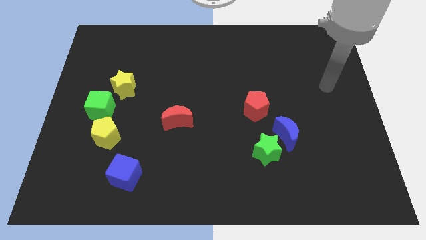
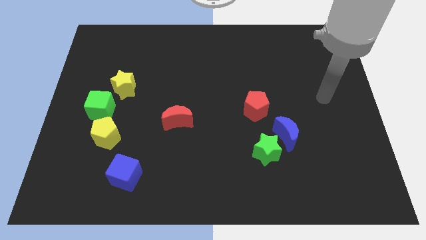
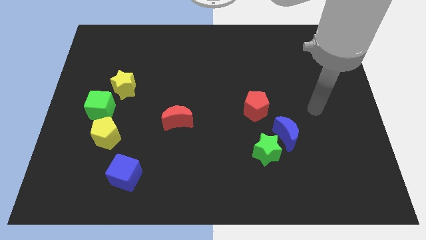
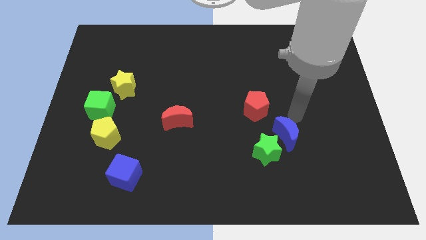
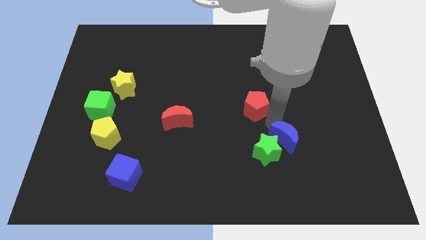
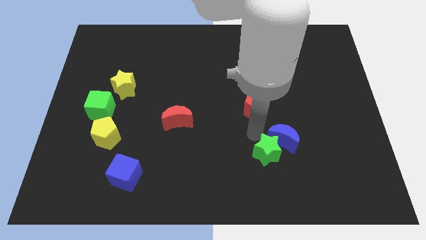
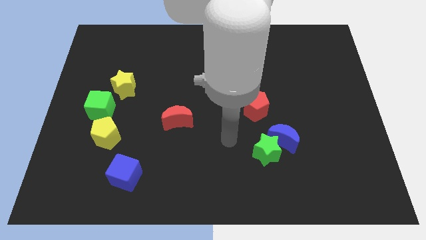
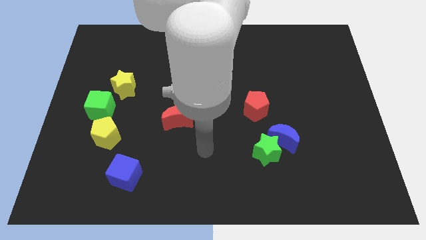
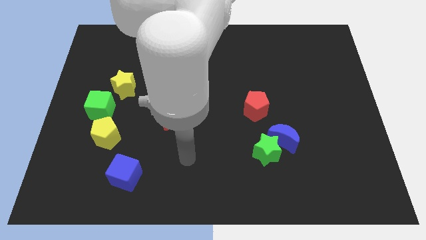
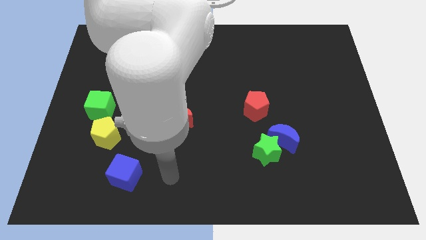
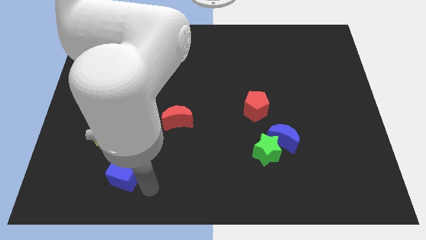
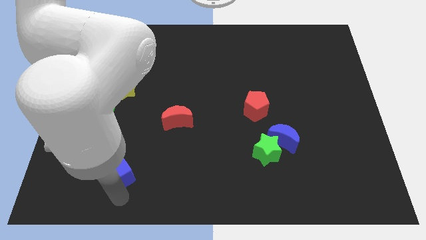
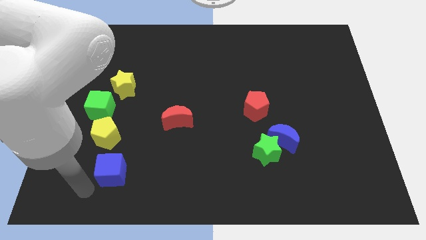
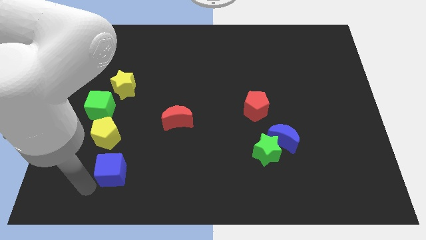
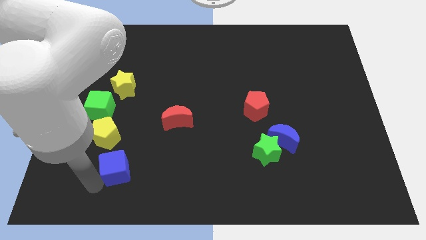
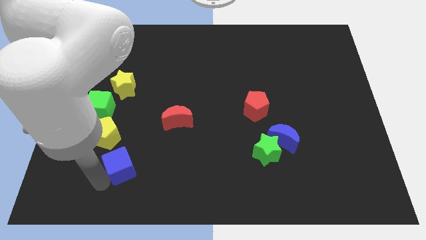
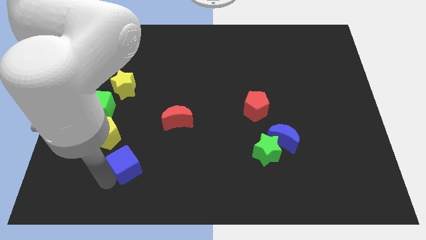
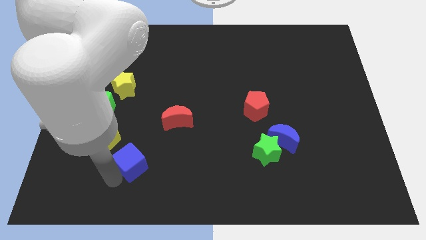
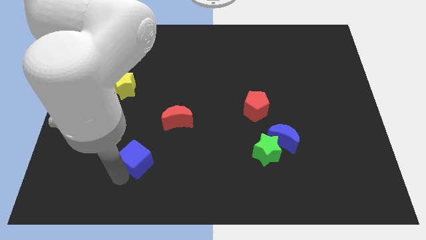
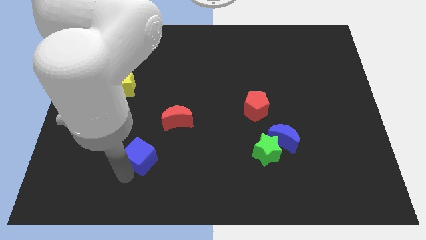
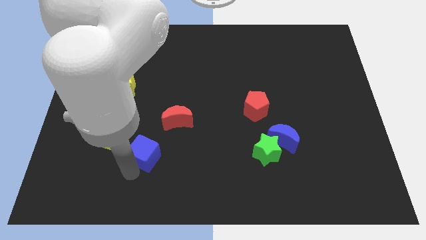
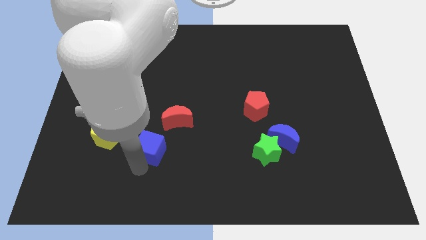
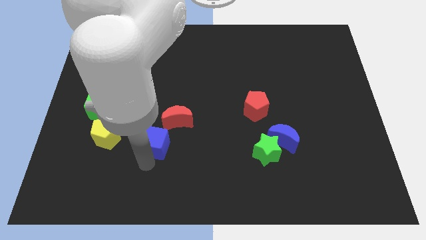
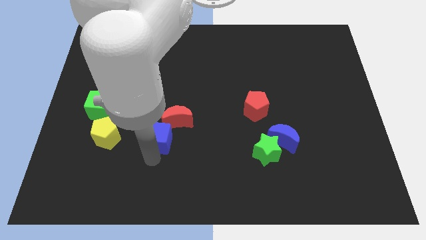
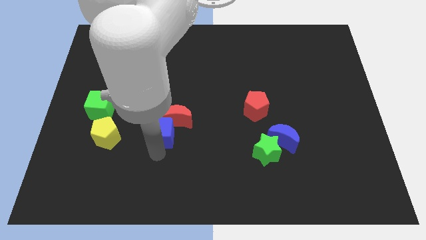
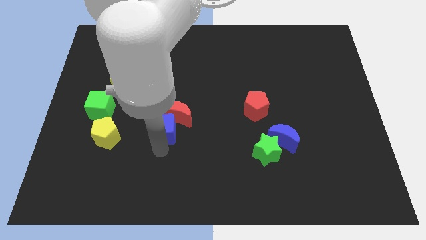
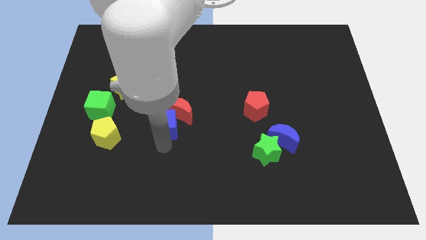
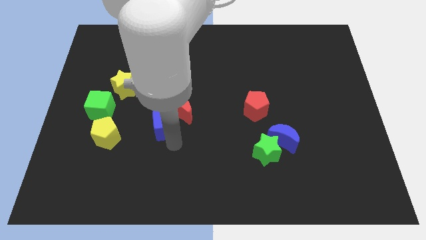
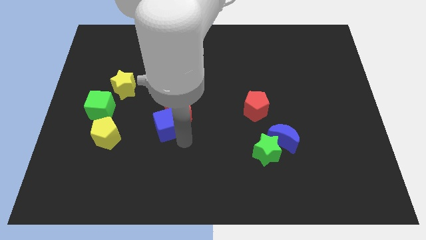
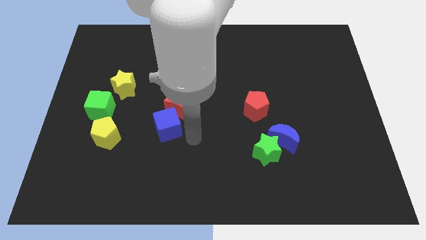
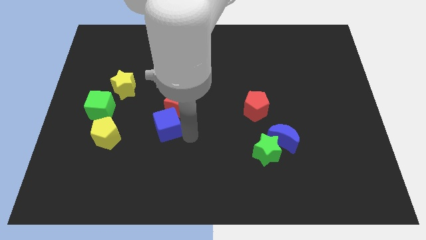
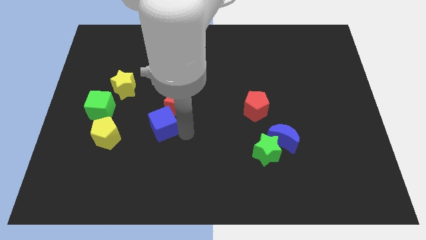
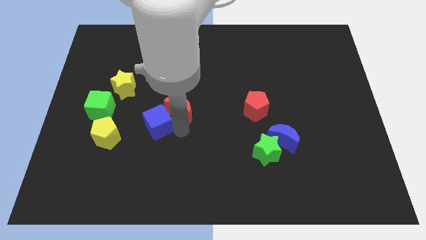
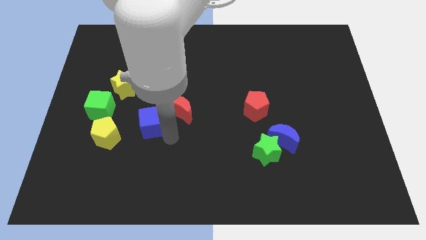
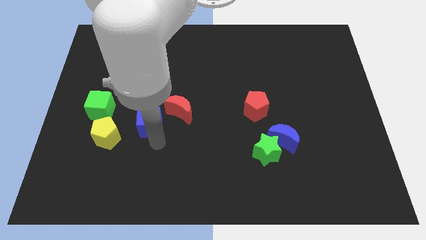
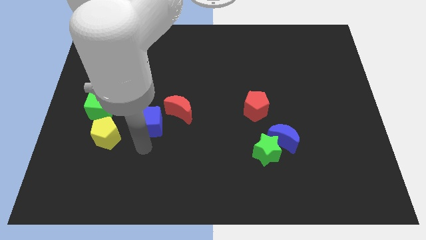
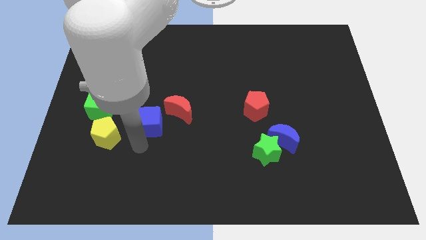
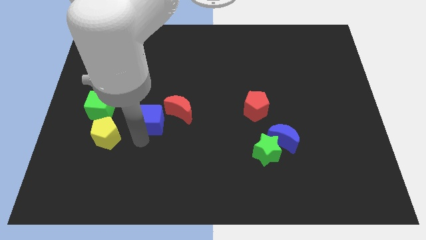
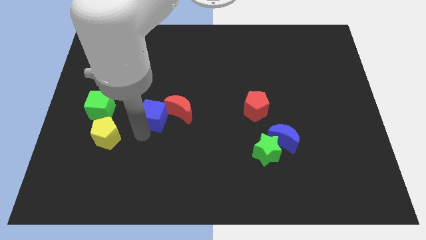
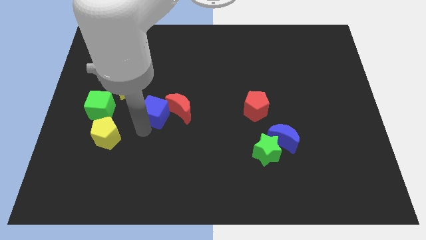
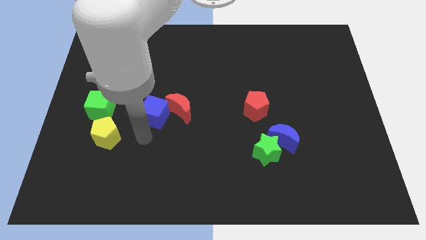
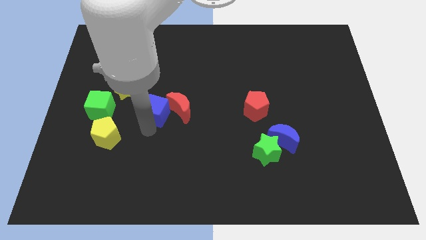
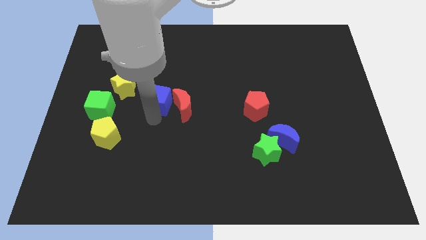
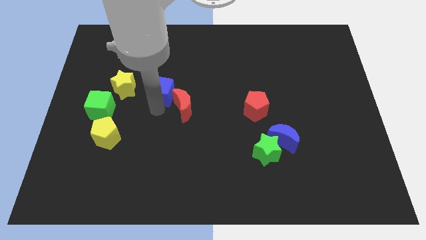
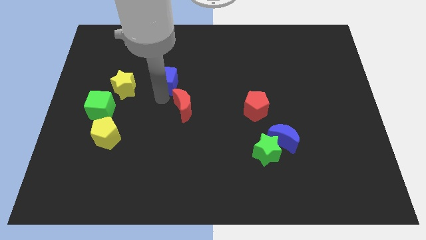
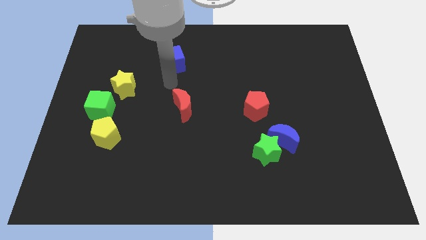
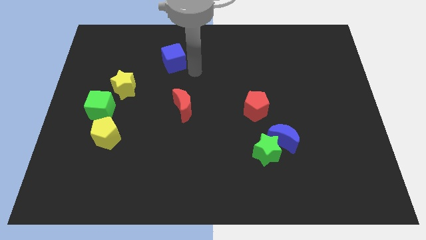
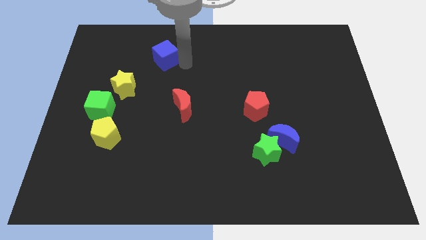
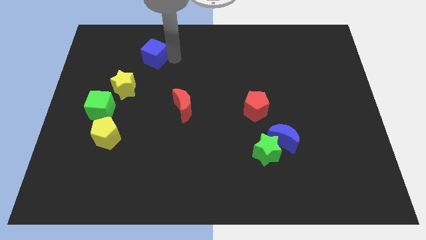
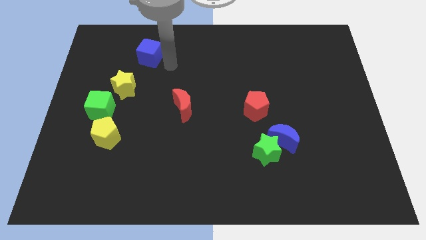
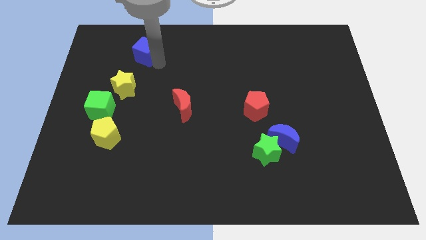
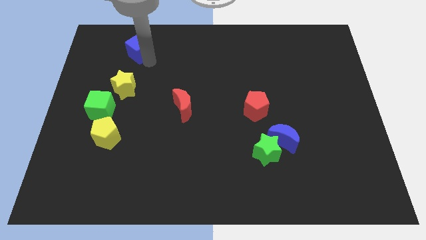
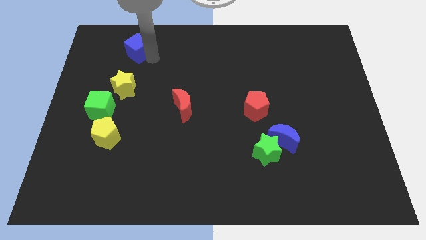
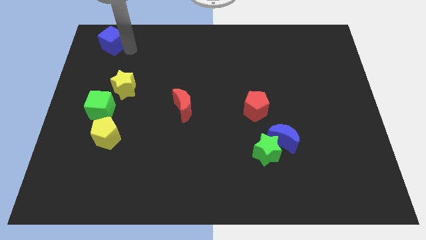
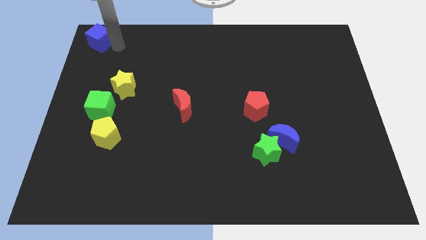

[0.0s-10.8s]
move the blue cube to the top left corner

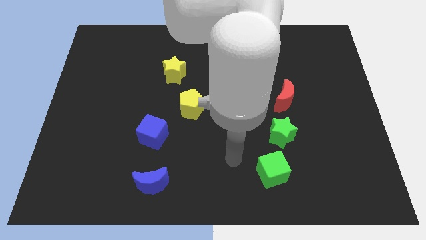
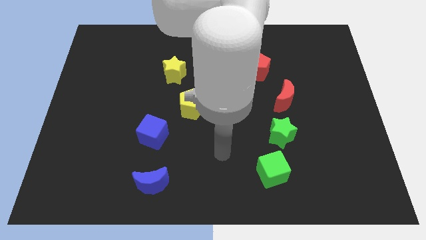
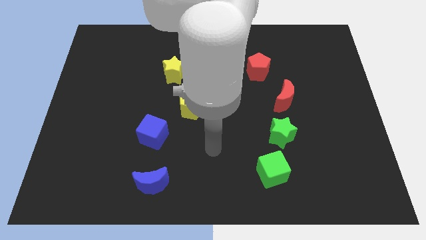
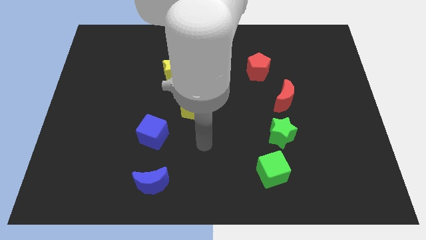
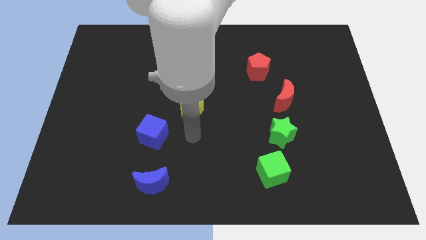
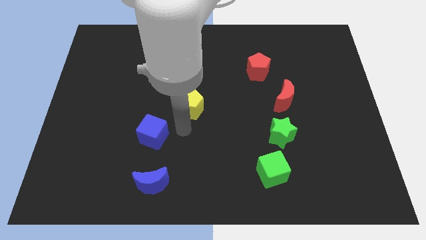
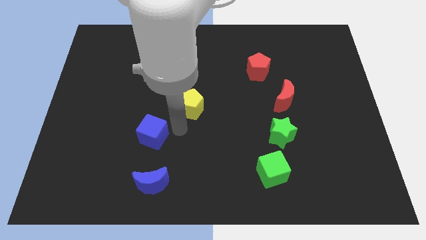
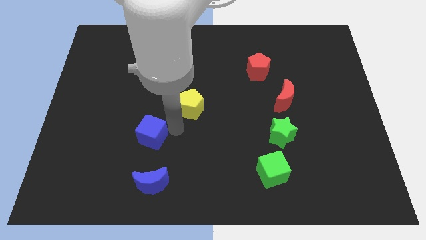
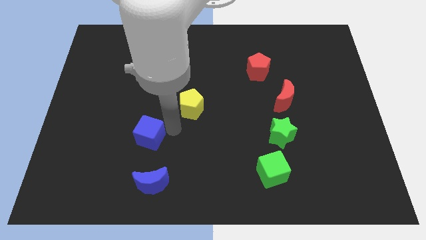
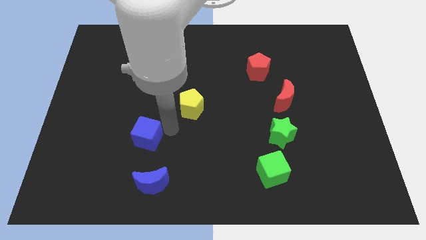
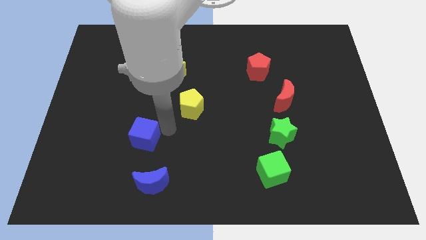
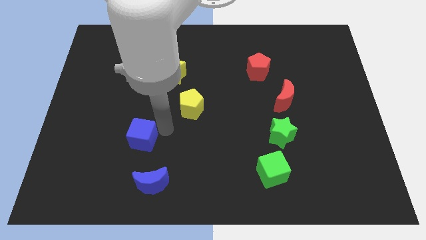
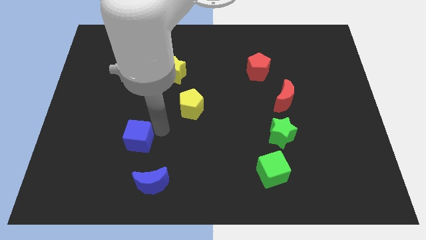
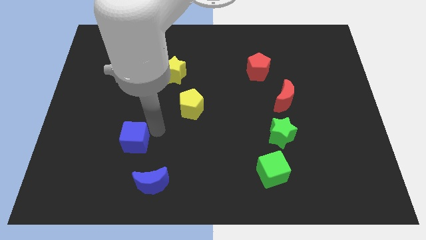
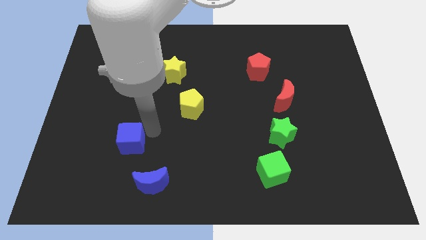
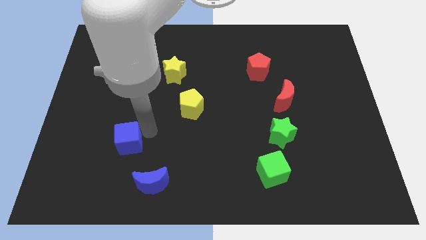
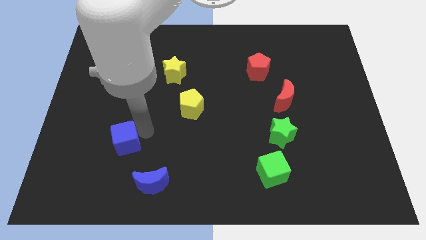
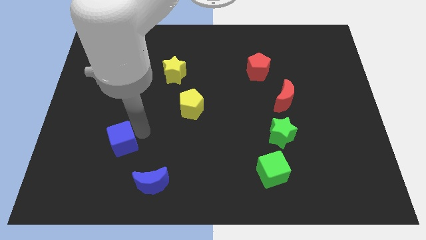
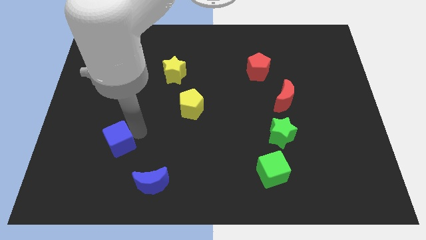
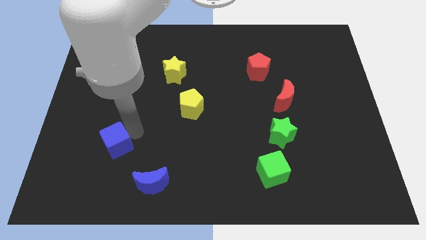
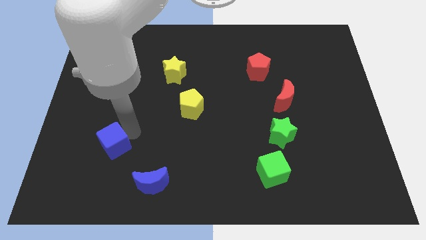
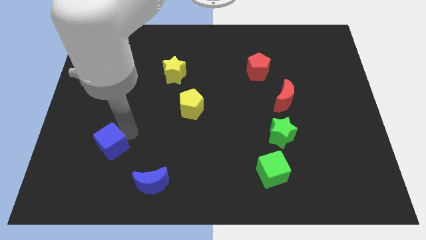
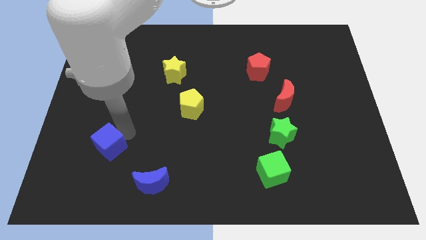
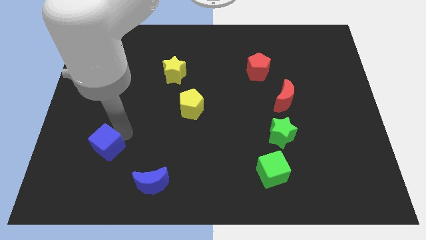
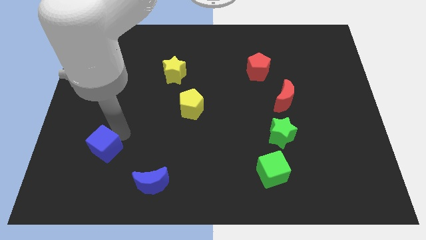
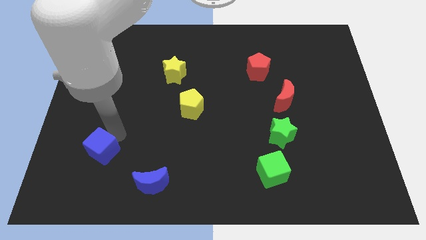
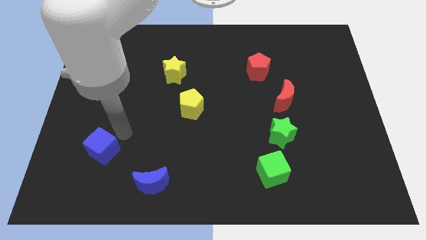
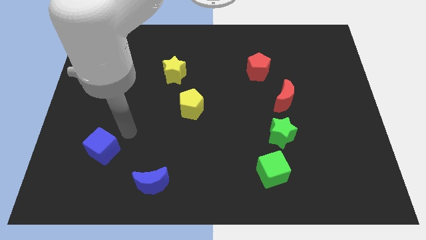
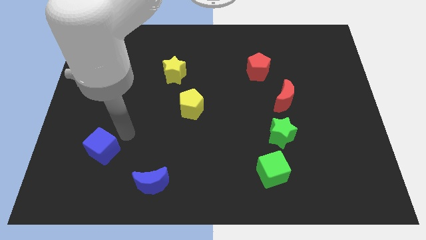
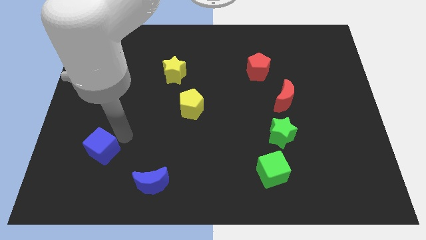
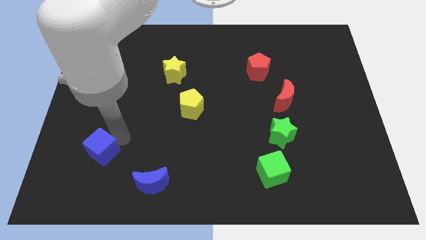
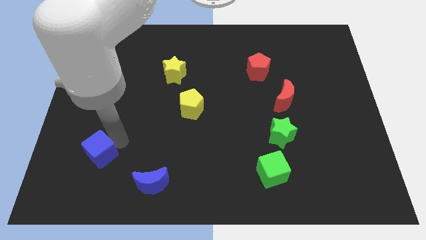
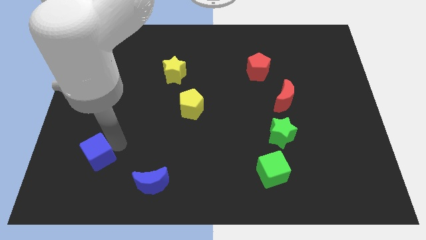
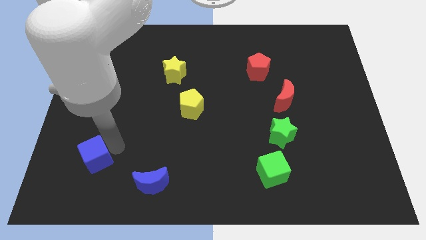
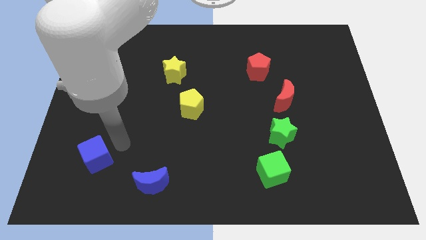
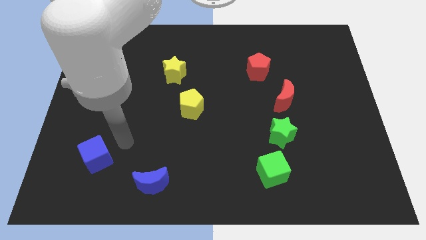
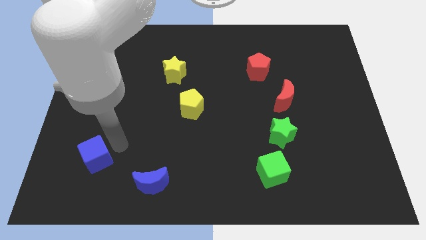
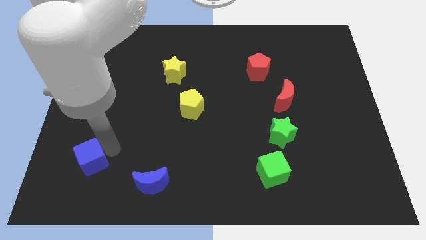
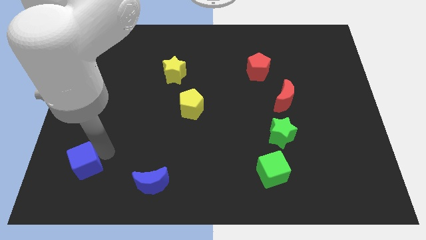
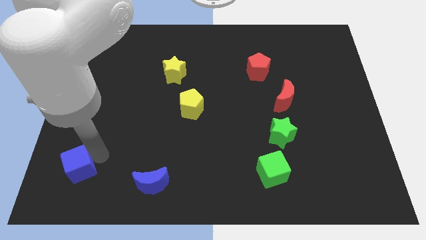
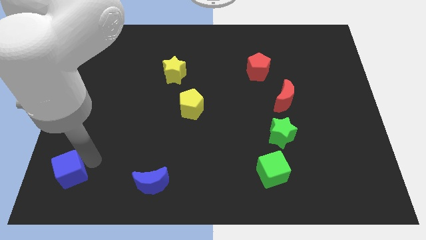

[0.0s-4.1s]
put the blue cube to the bottom left of the board
